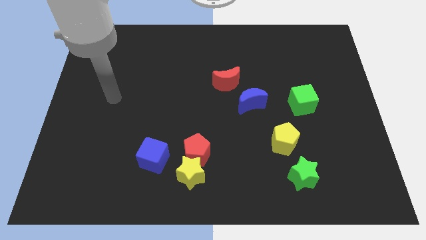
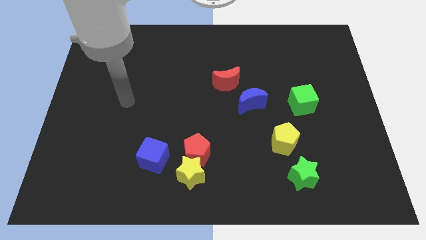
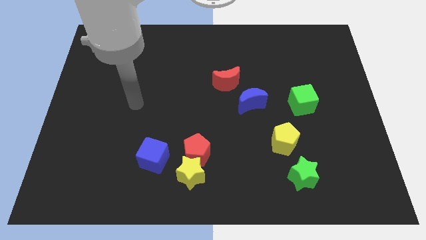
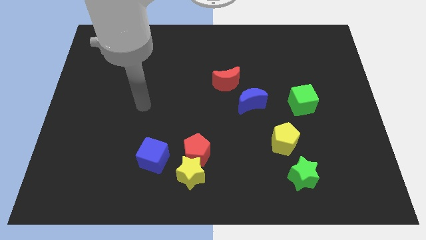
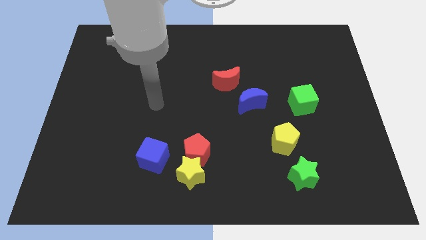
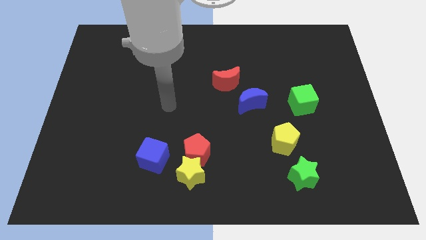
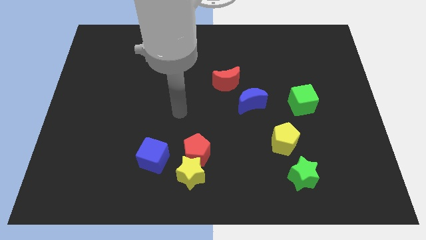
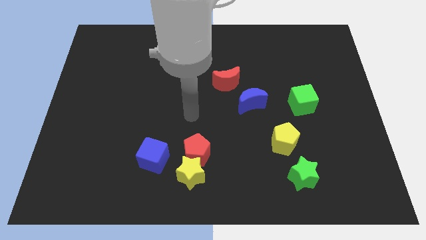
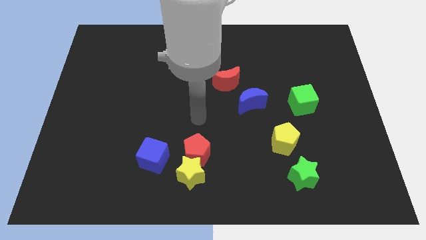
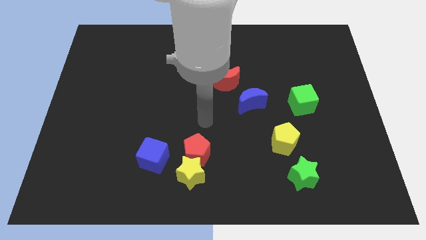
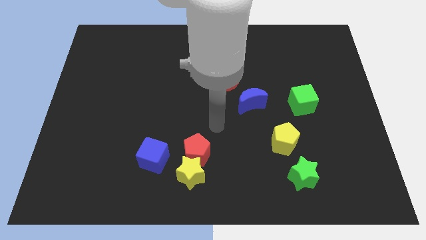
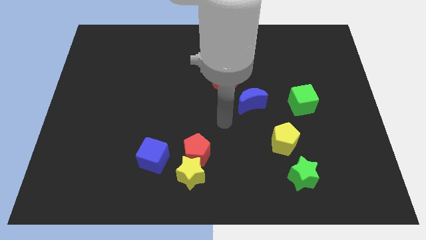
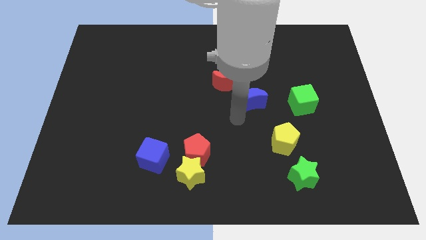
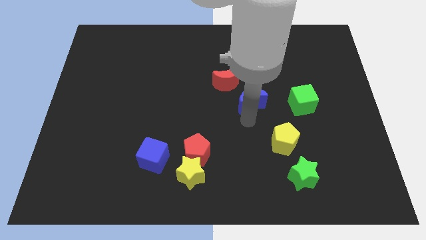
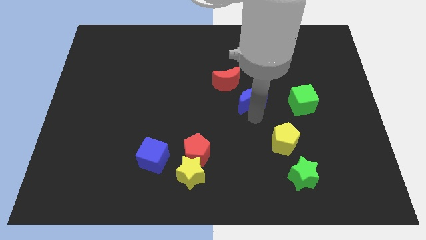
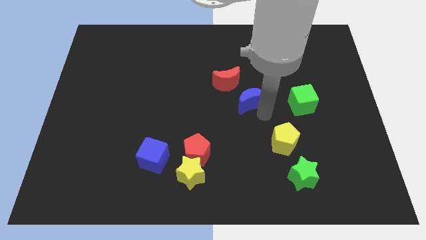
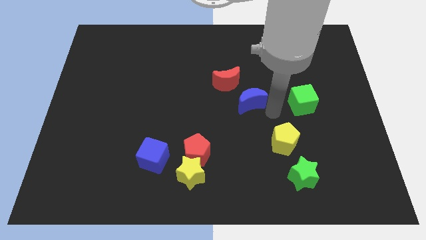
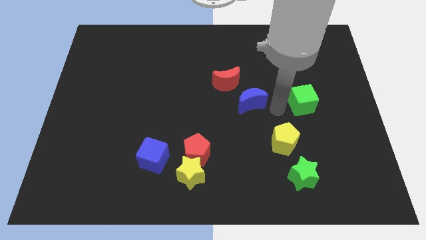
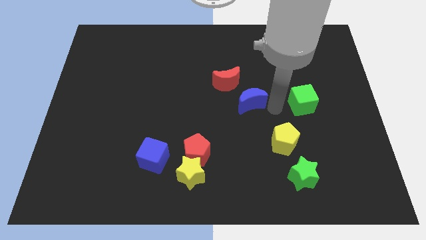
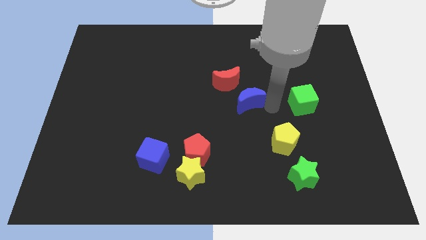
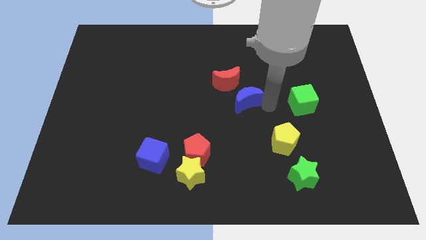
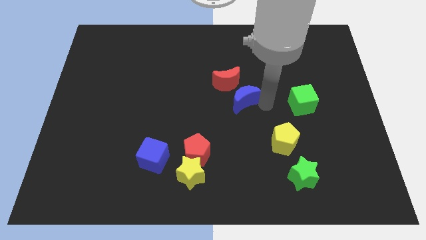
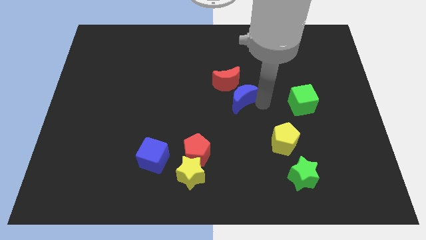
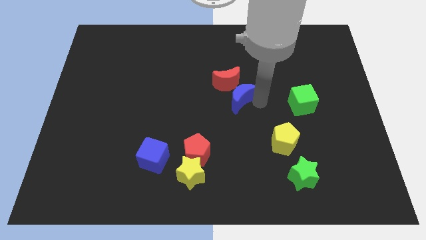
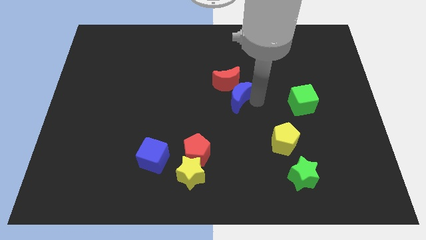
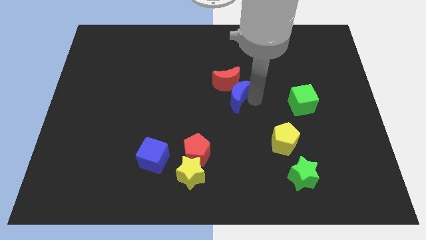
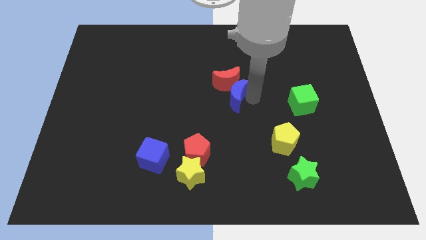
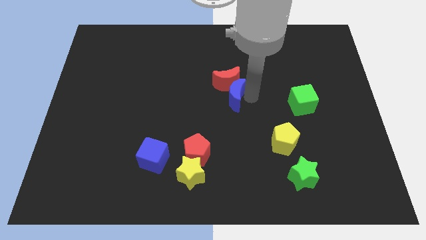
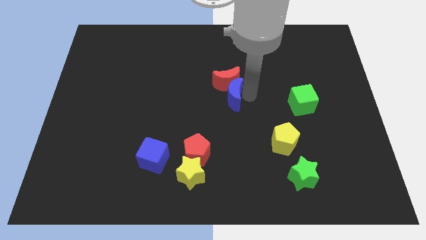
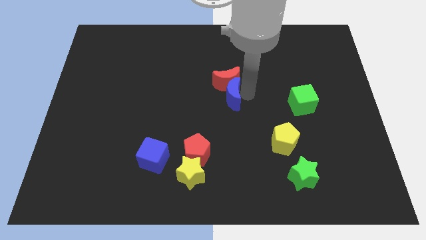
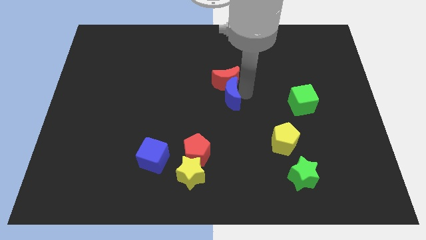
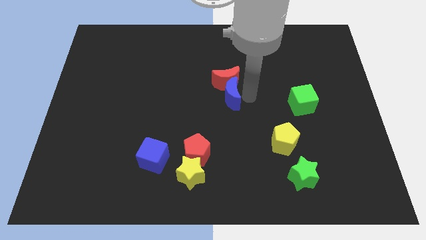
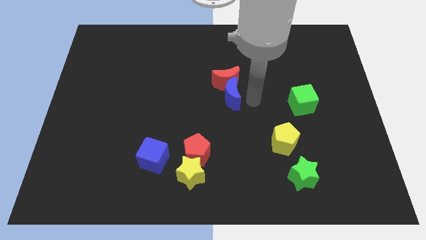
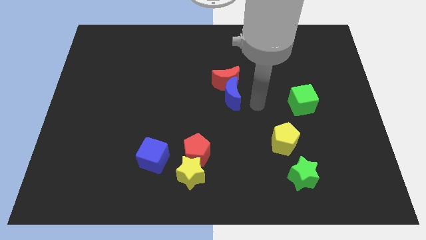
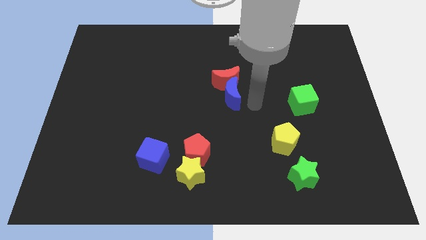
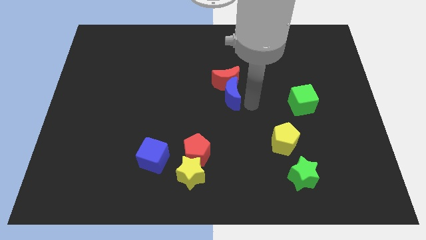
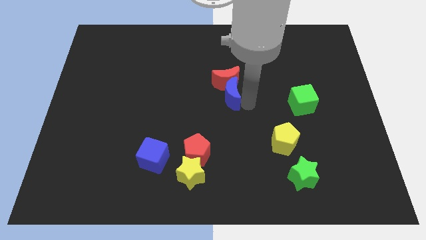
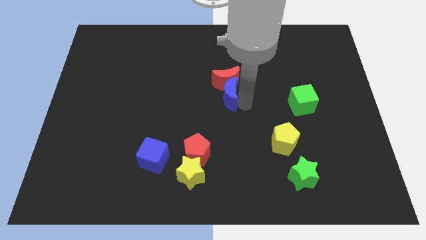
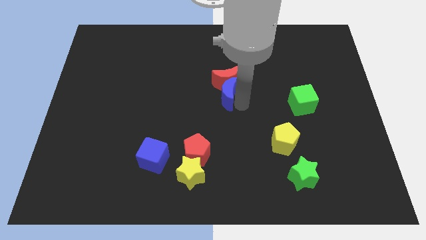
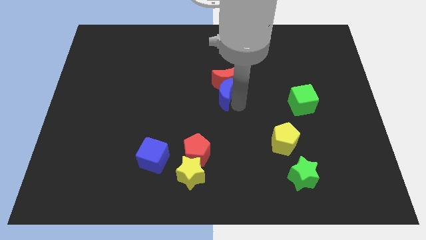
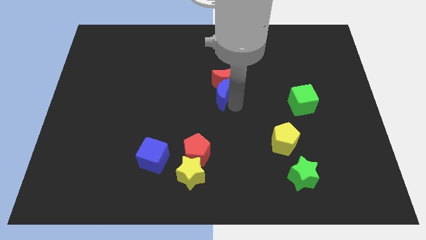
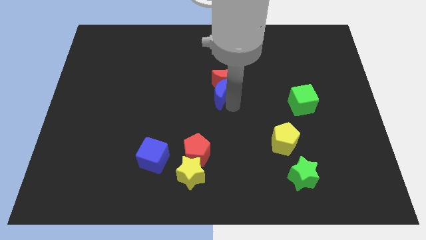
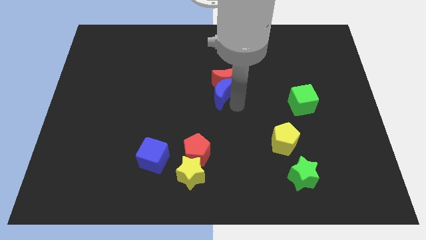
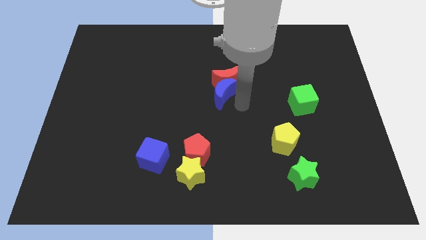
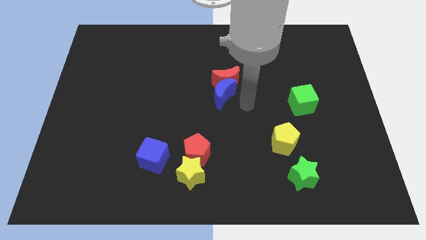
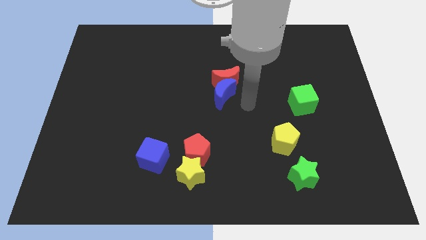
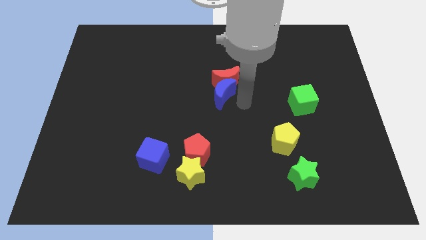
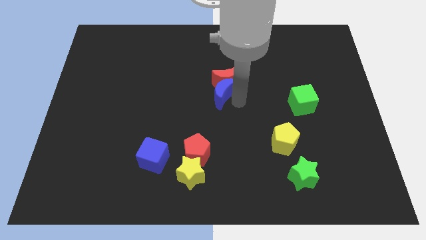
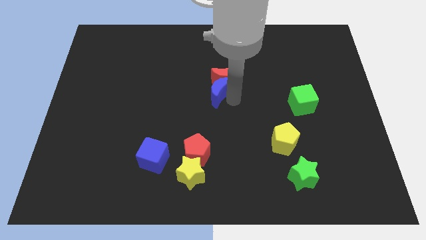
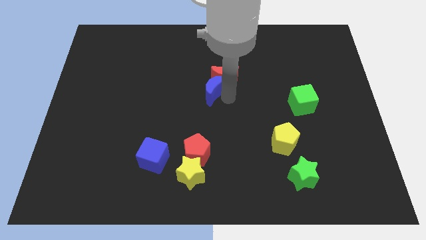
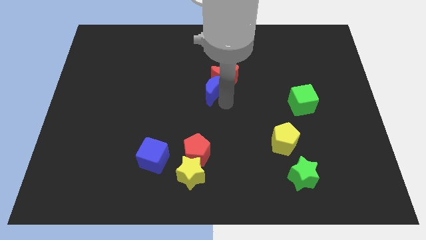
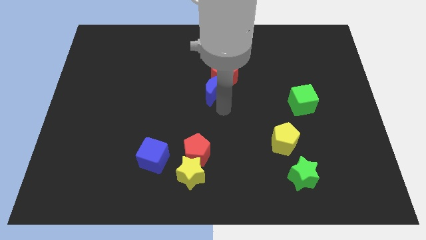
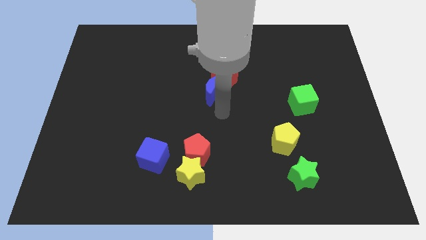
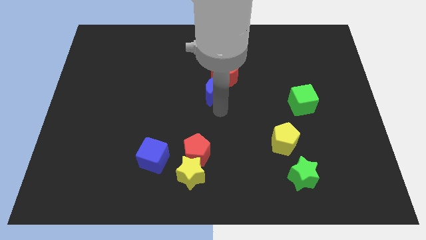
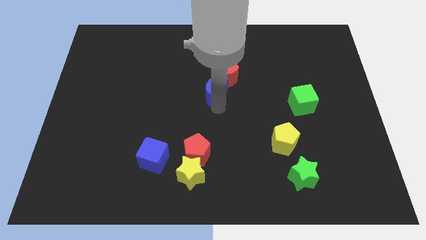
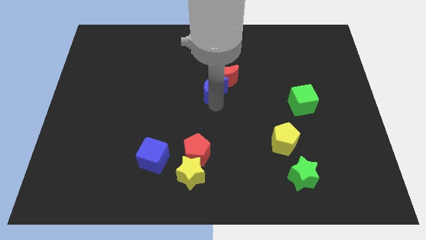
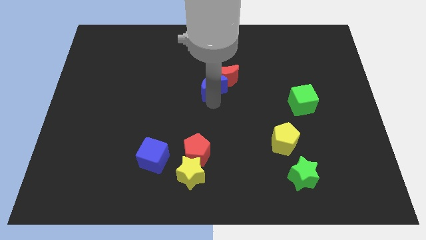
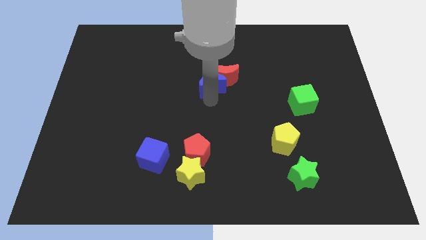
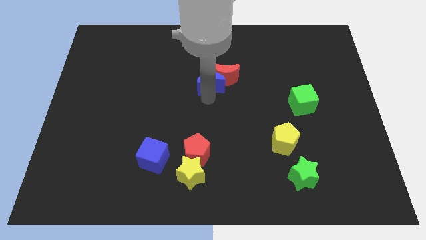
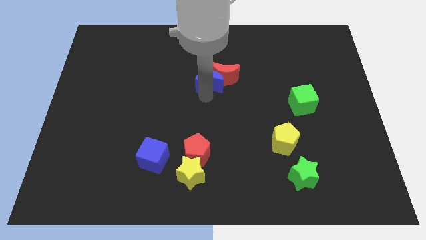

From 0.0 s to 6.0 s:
push the blue moon diagonally up and to the left of the red moon
